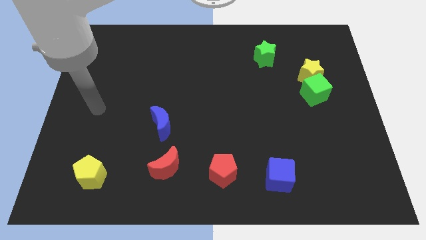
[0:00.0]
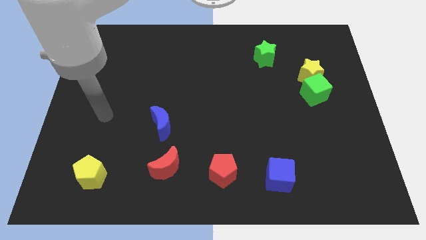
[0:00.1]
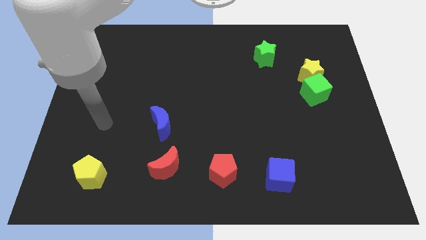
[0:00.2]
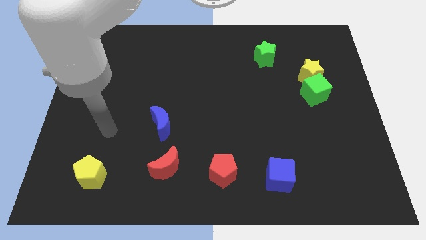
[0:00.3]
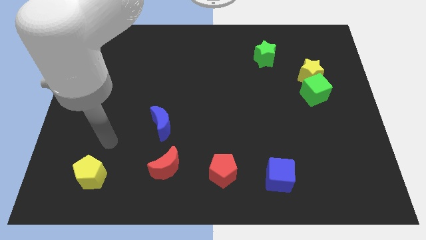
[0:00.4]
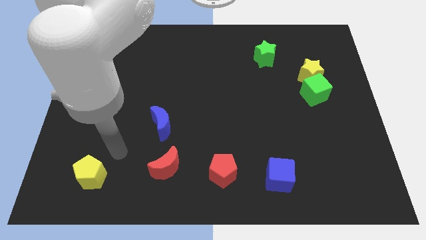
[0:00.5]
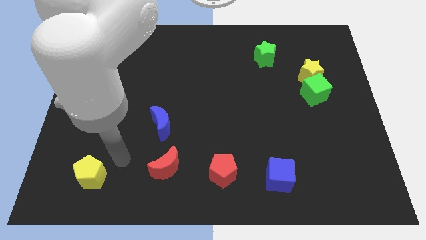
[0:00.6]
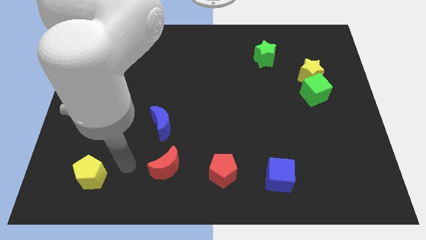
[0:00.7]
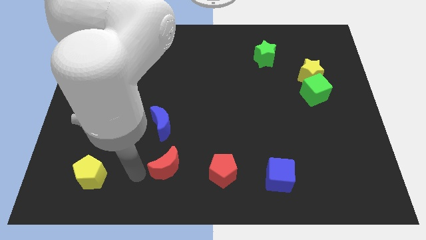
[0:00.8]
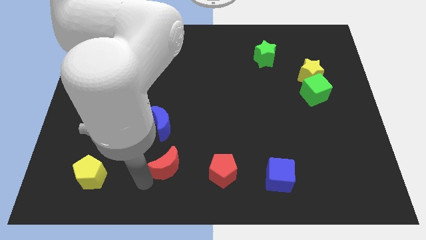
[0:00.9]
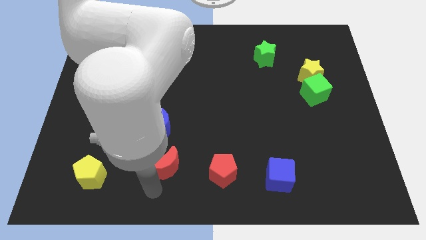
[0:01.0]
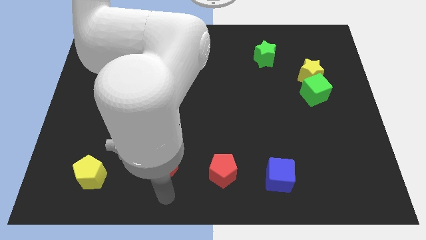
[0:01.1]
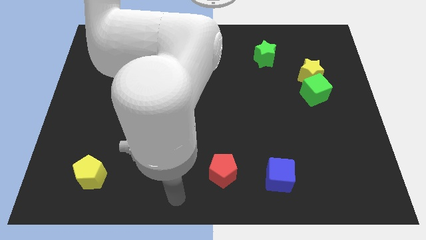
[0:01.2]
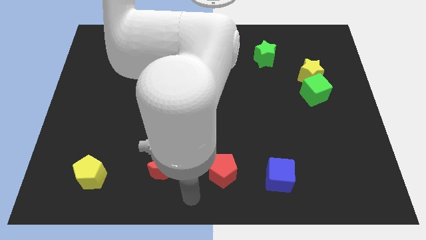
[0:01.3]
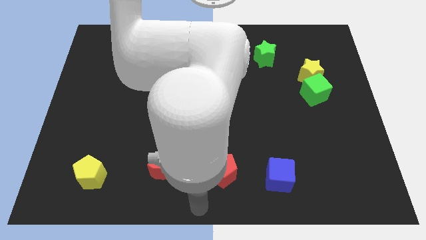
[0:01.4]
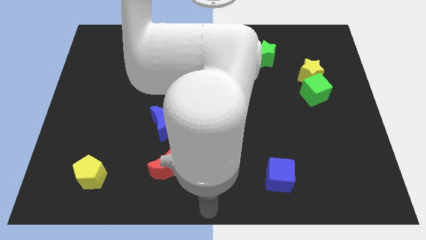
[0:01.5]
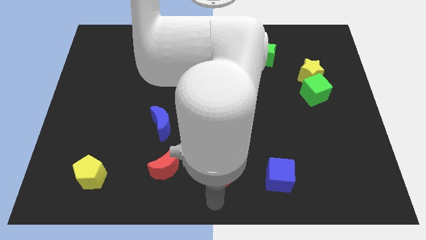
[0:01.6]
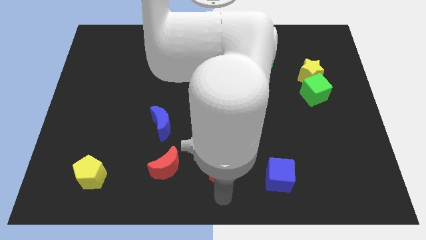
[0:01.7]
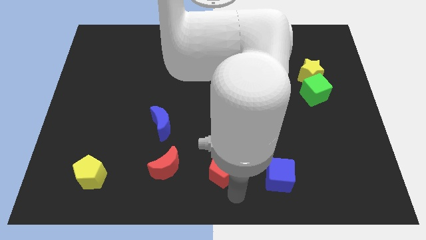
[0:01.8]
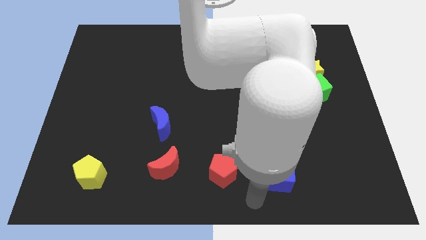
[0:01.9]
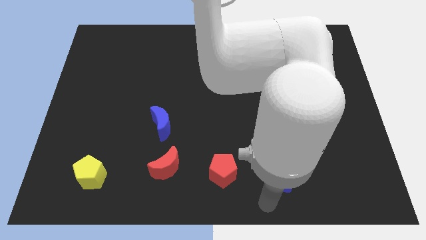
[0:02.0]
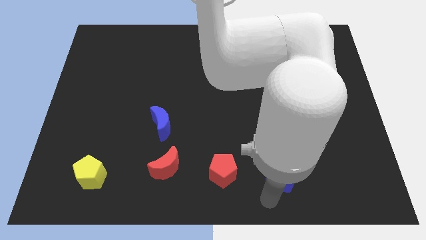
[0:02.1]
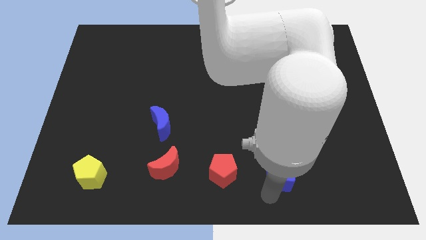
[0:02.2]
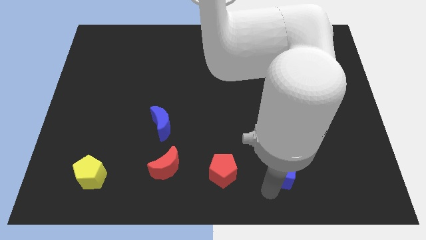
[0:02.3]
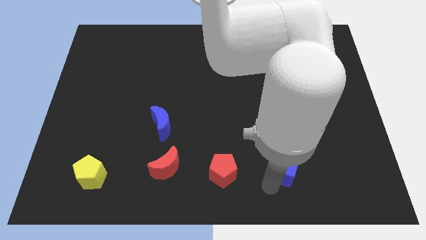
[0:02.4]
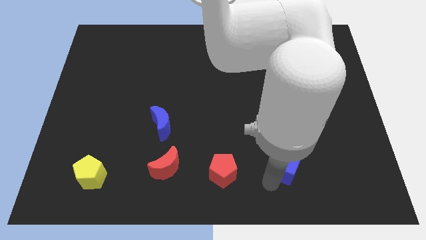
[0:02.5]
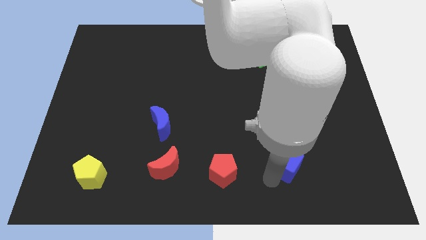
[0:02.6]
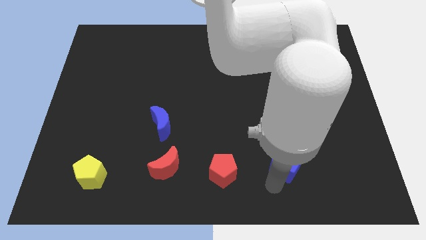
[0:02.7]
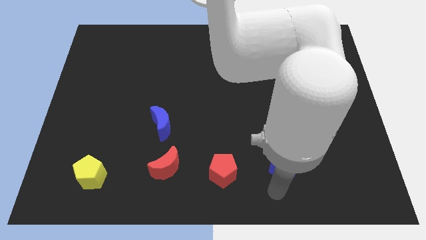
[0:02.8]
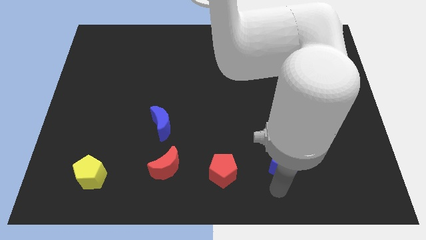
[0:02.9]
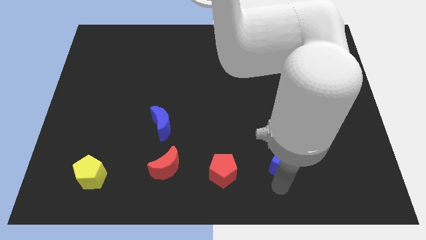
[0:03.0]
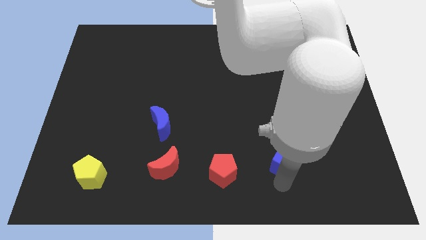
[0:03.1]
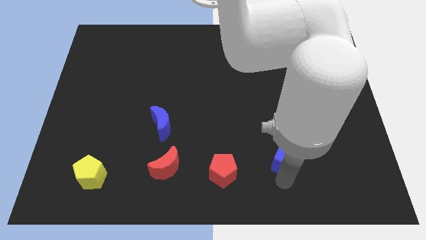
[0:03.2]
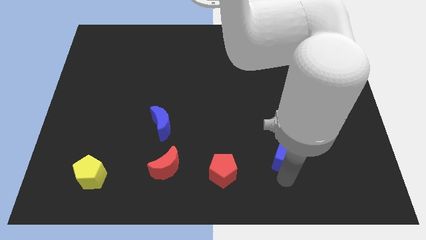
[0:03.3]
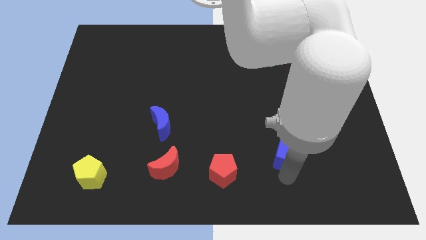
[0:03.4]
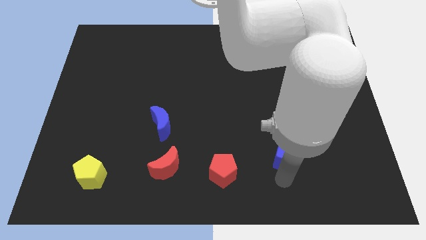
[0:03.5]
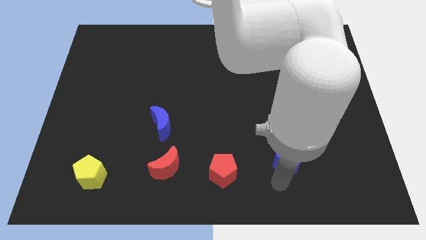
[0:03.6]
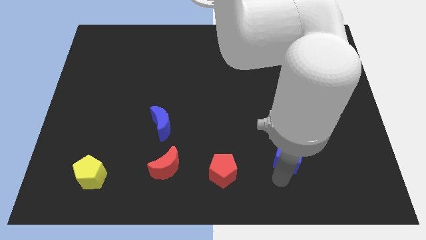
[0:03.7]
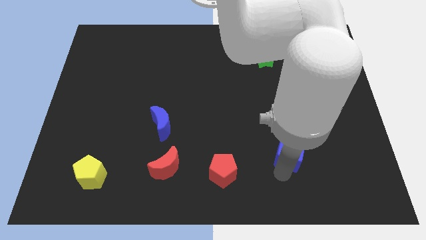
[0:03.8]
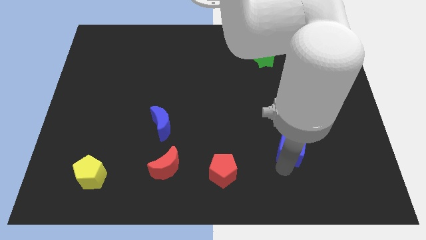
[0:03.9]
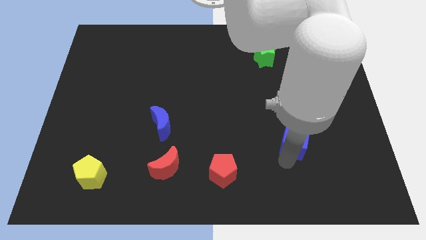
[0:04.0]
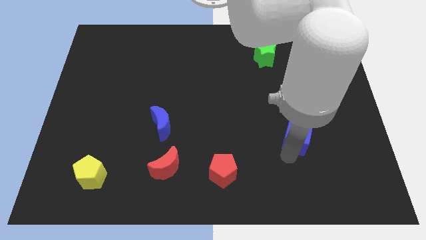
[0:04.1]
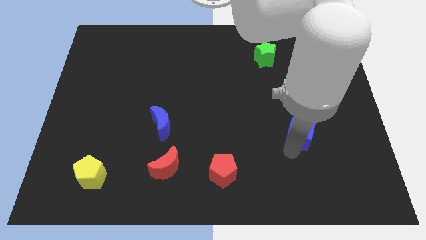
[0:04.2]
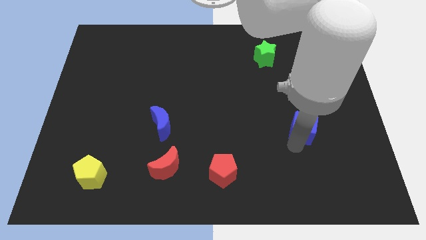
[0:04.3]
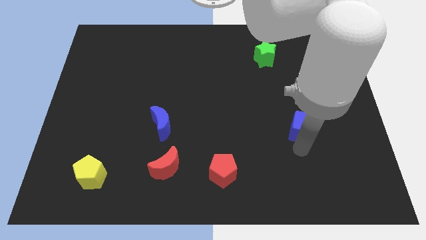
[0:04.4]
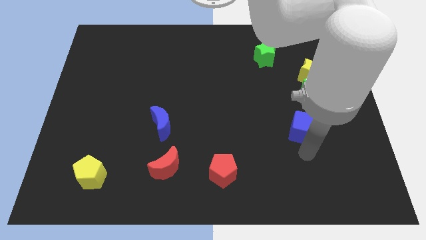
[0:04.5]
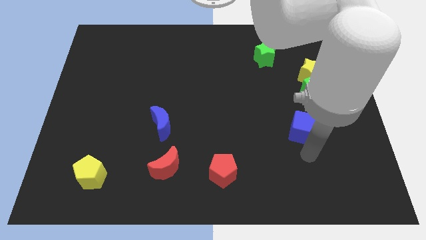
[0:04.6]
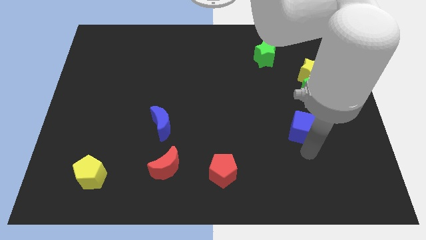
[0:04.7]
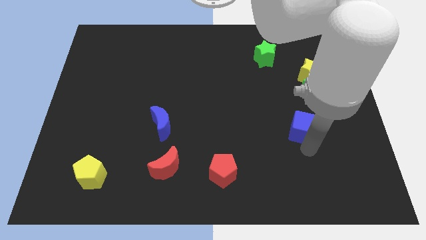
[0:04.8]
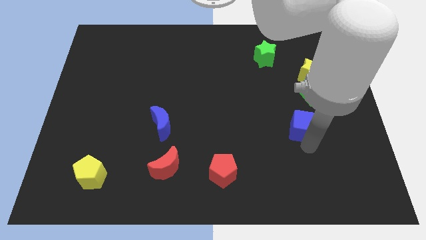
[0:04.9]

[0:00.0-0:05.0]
put the blue cube diagonally down and to the left of the green cube

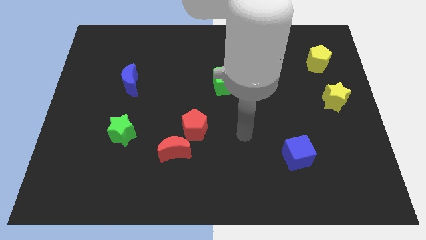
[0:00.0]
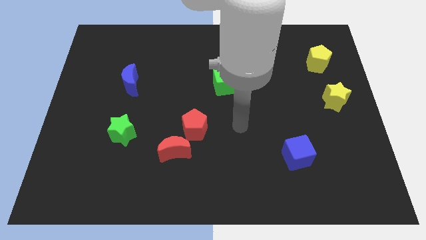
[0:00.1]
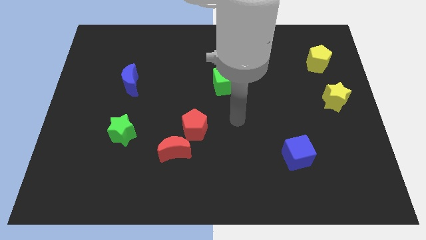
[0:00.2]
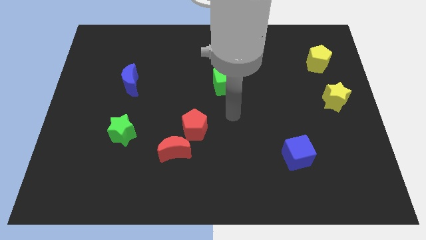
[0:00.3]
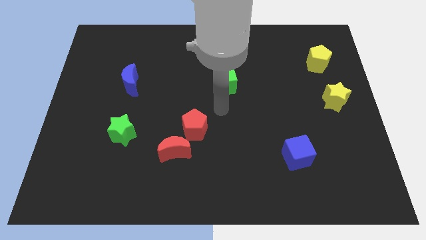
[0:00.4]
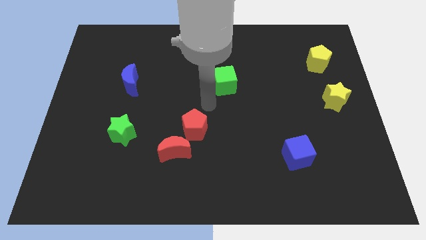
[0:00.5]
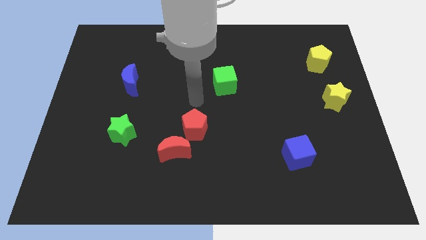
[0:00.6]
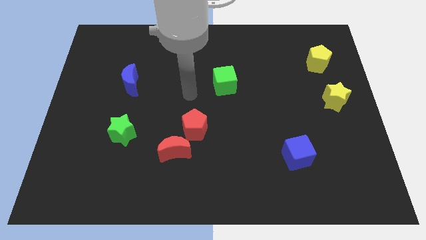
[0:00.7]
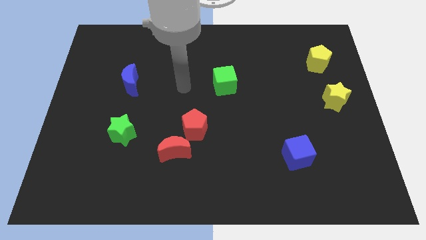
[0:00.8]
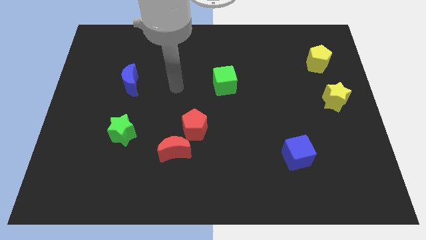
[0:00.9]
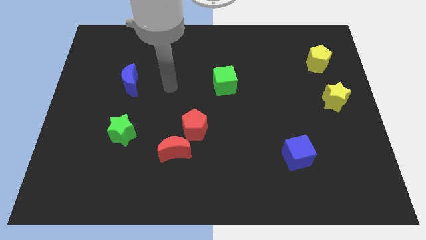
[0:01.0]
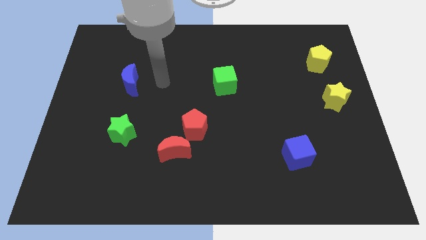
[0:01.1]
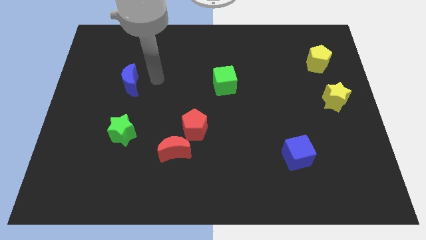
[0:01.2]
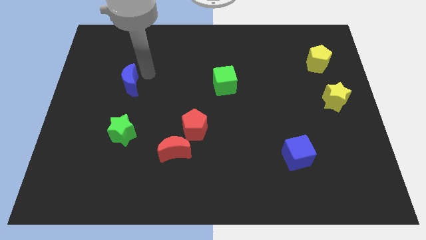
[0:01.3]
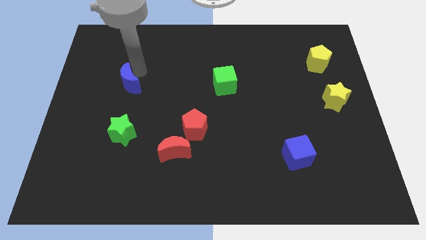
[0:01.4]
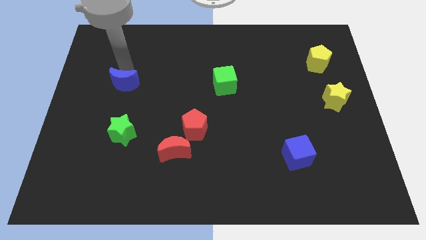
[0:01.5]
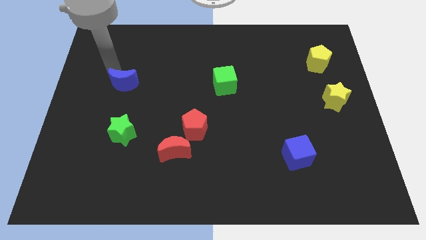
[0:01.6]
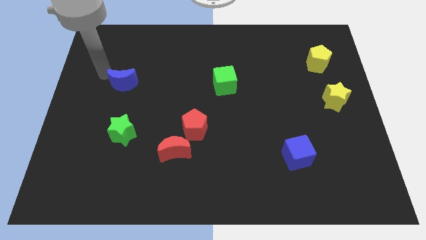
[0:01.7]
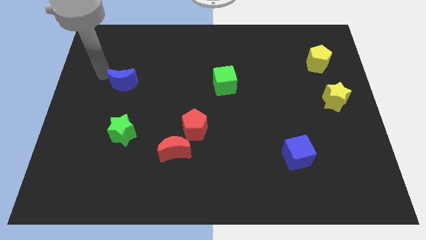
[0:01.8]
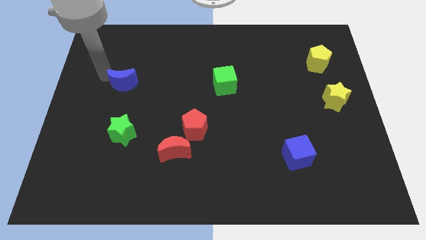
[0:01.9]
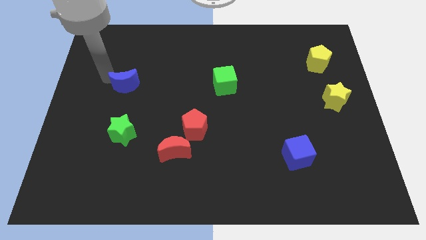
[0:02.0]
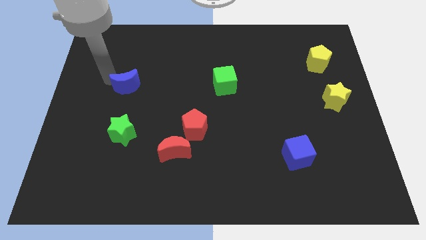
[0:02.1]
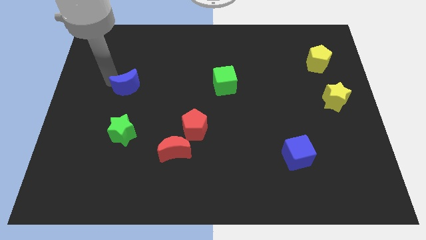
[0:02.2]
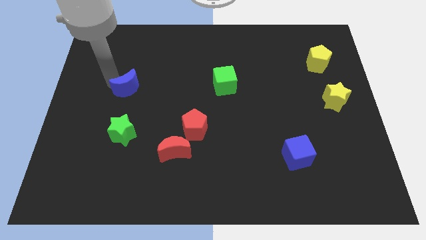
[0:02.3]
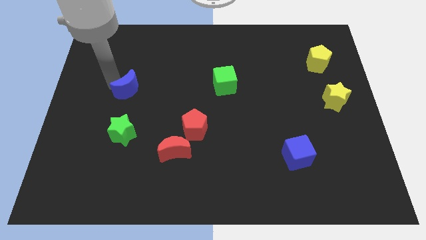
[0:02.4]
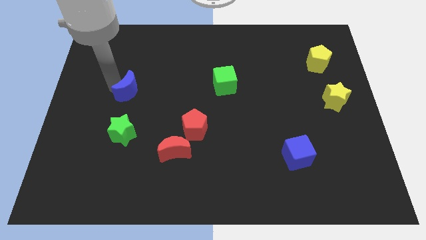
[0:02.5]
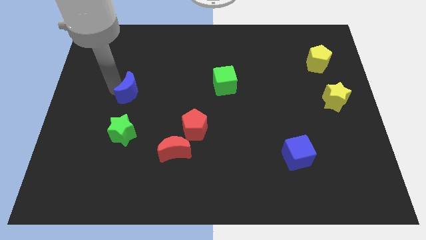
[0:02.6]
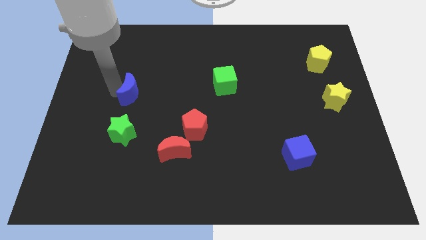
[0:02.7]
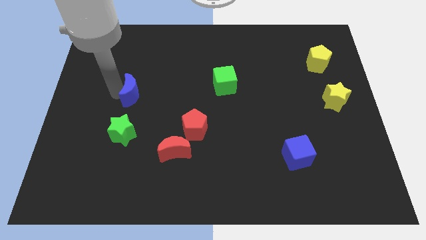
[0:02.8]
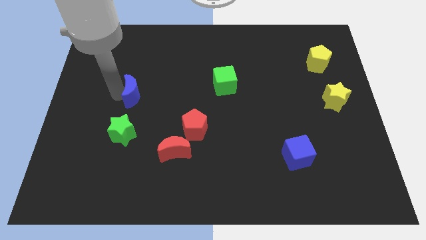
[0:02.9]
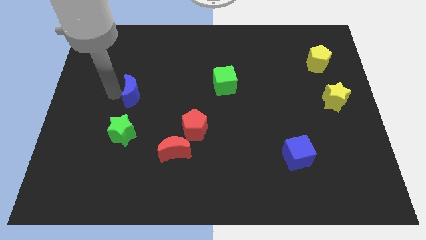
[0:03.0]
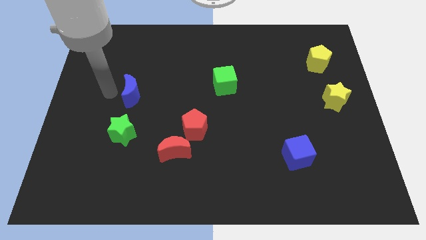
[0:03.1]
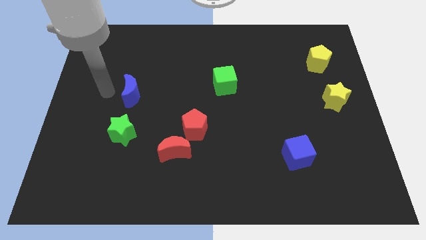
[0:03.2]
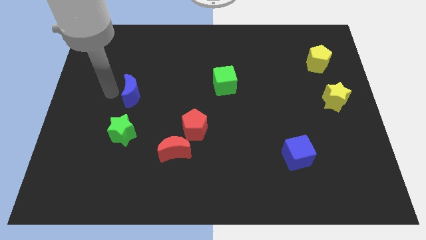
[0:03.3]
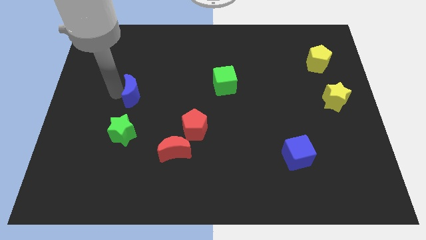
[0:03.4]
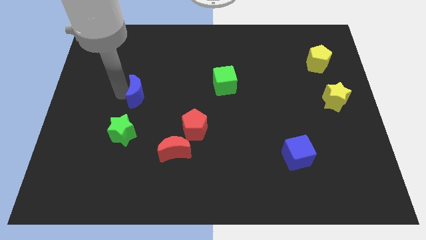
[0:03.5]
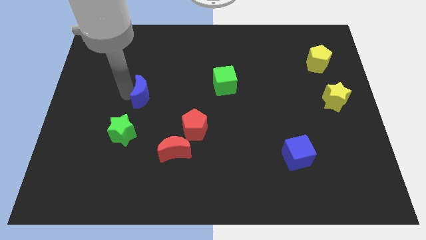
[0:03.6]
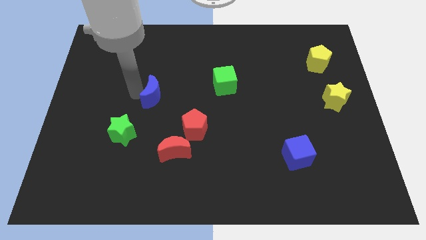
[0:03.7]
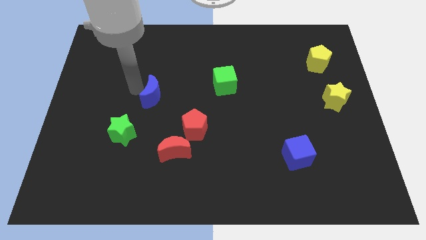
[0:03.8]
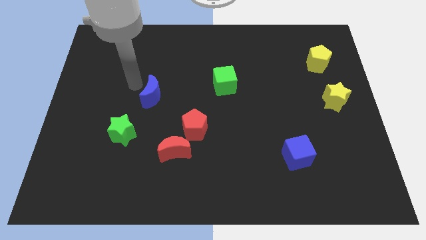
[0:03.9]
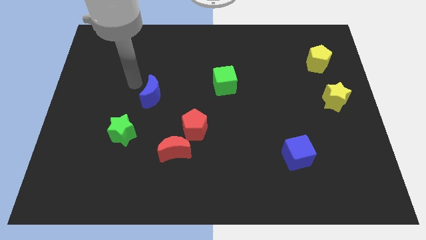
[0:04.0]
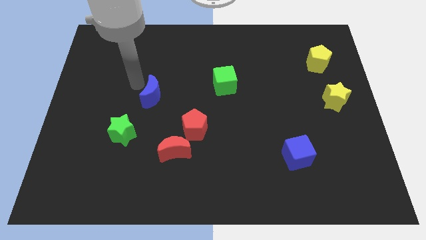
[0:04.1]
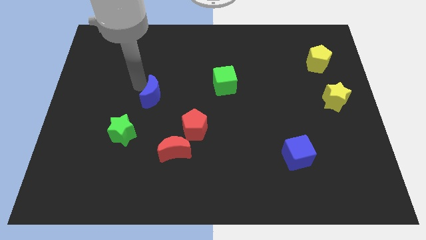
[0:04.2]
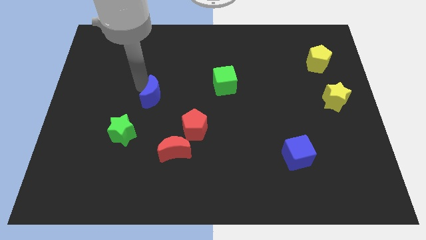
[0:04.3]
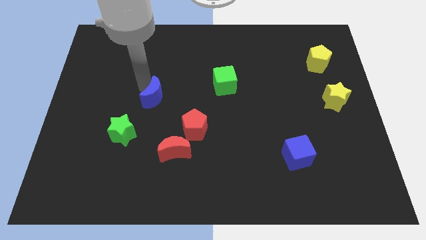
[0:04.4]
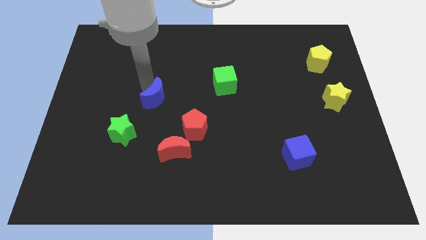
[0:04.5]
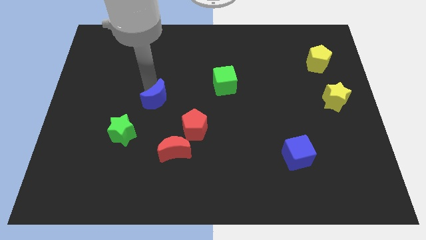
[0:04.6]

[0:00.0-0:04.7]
push the blue moon to the top left side of the red pentagon
